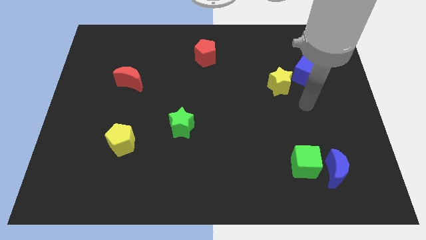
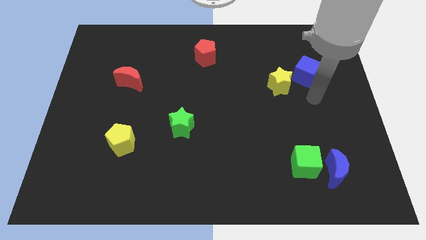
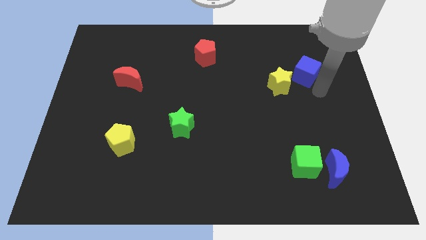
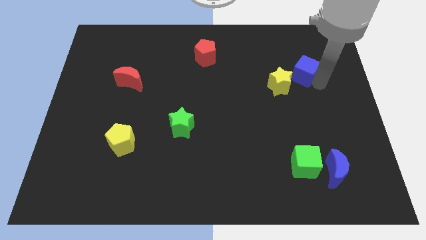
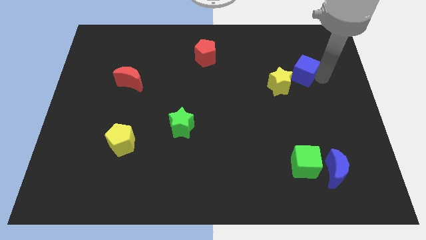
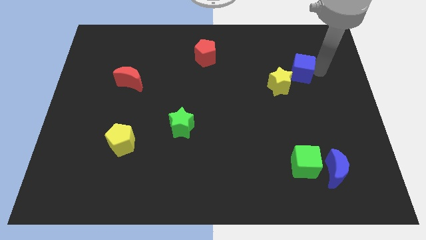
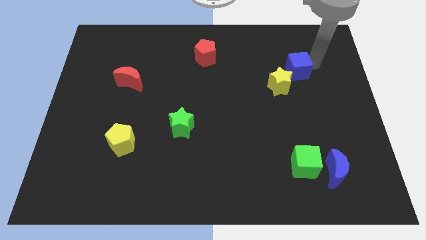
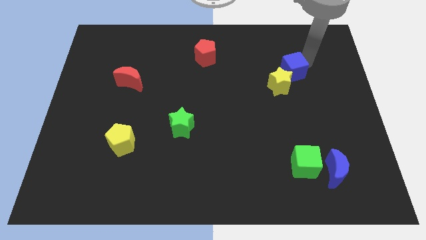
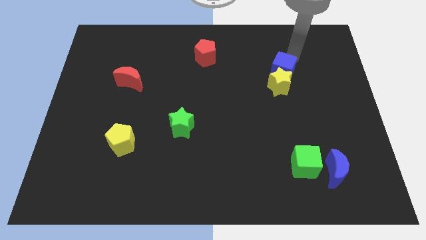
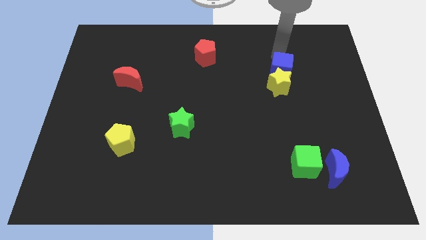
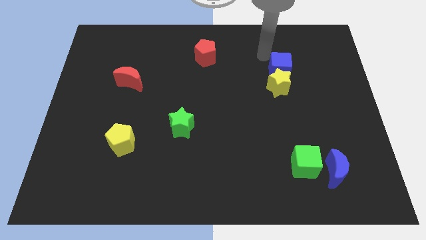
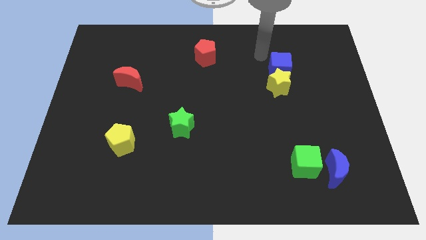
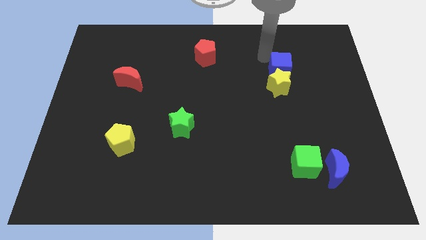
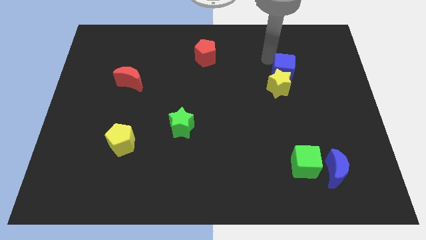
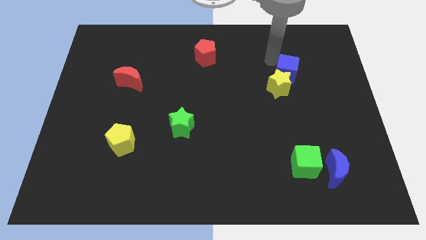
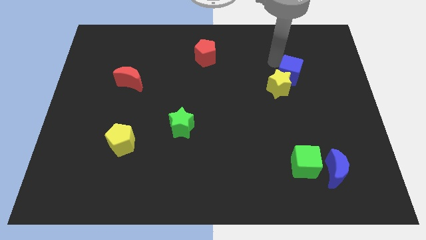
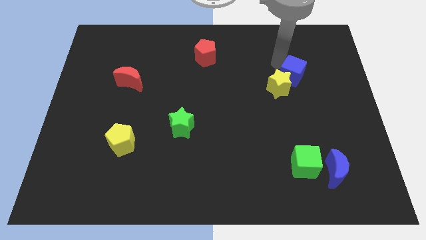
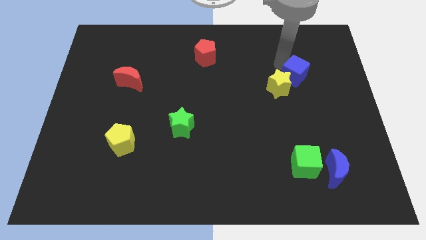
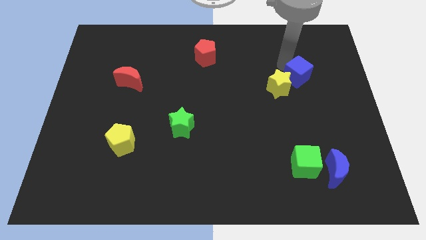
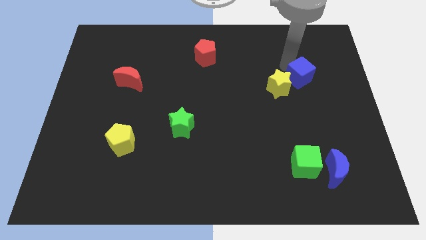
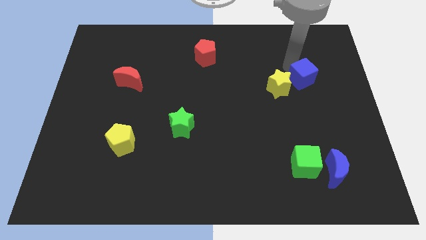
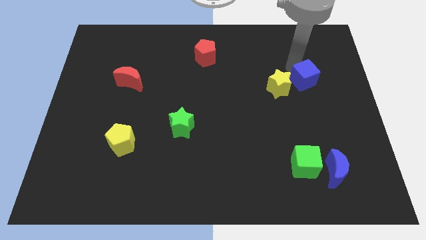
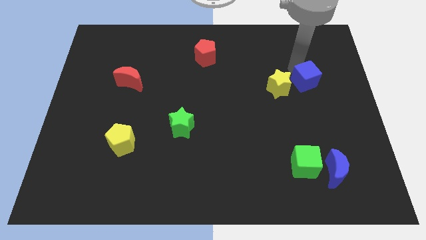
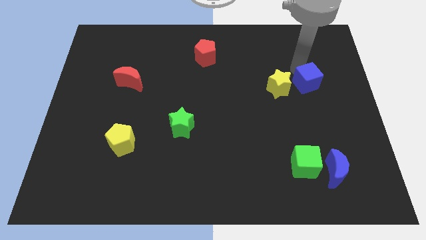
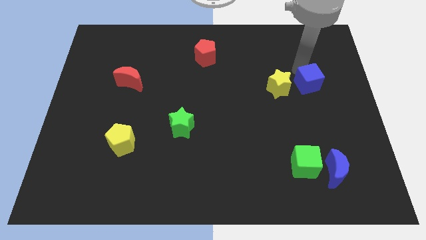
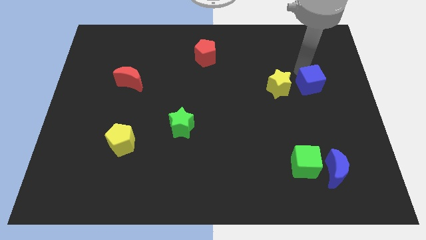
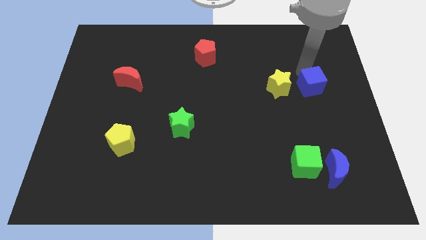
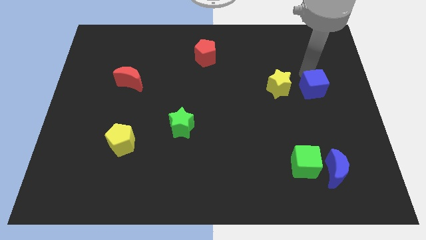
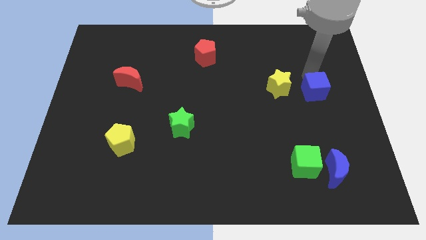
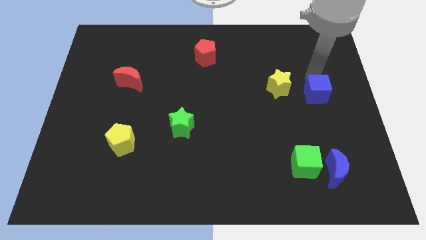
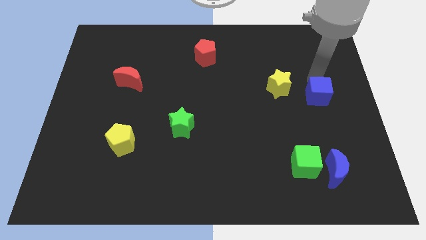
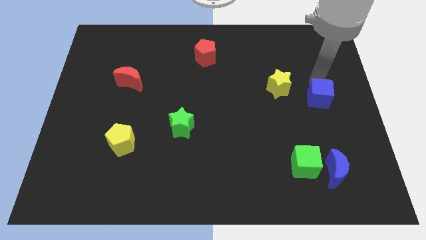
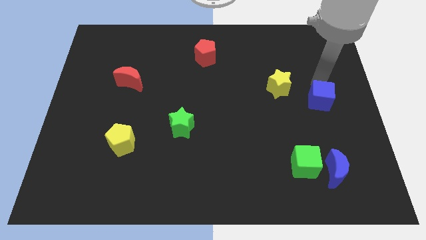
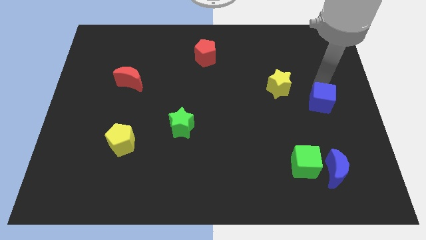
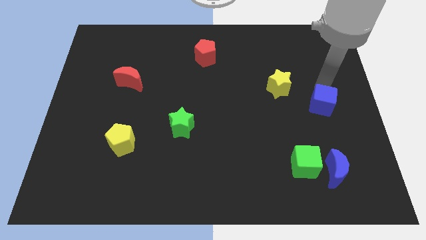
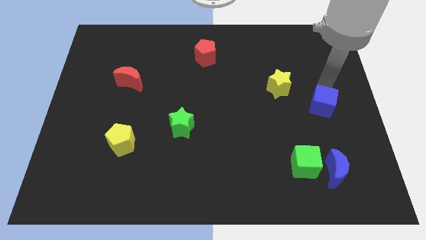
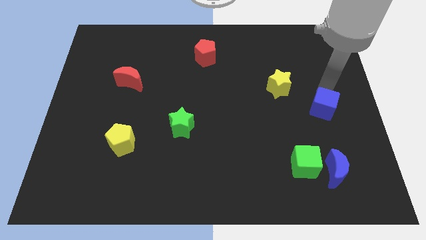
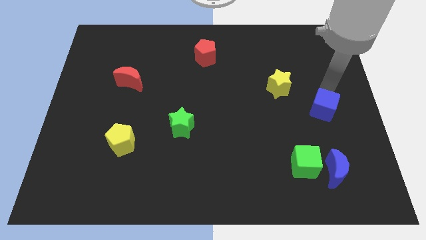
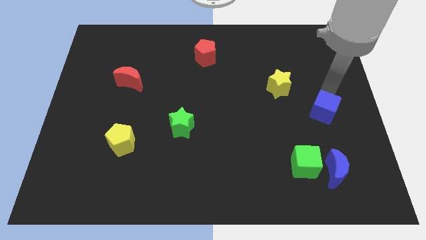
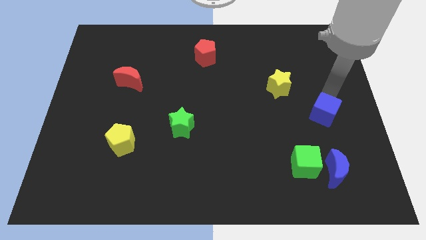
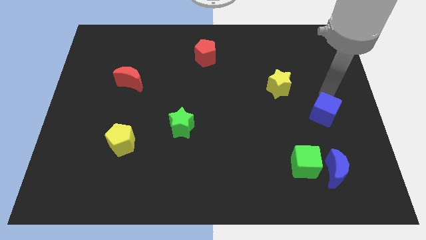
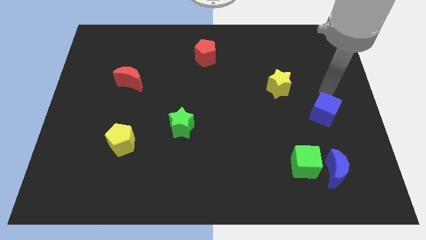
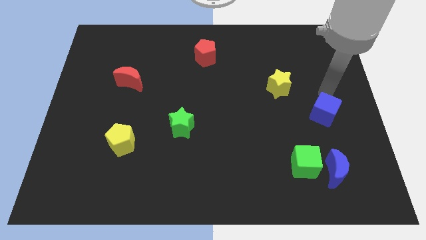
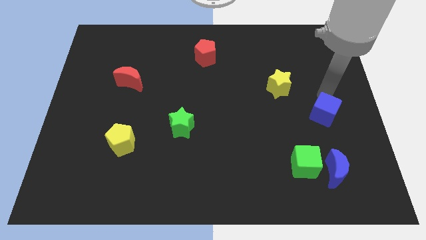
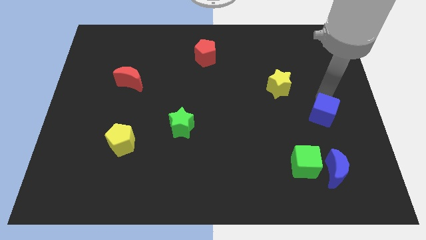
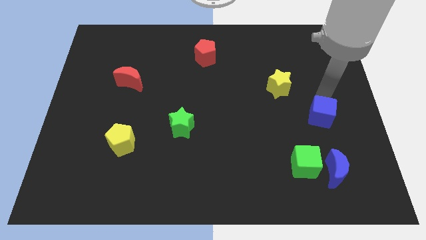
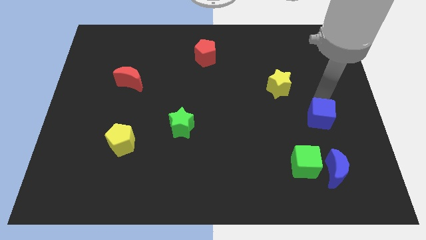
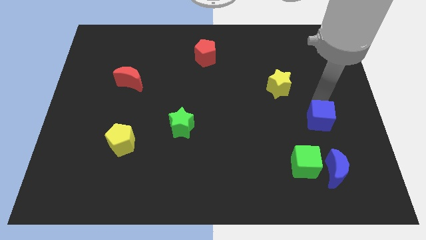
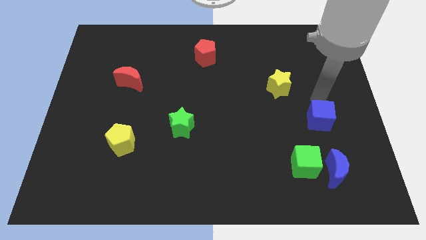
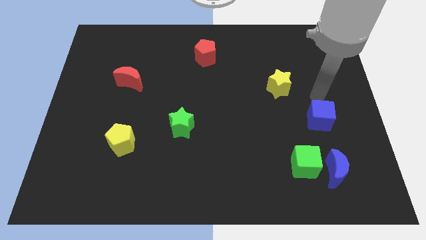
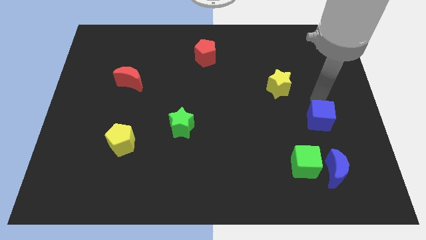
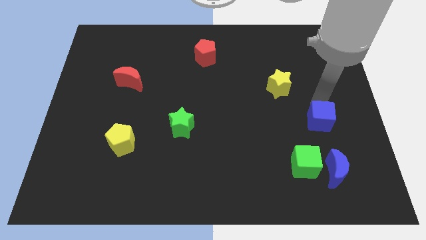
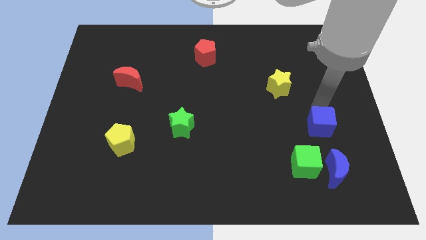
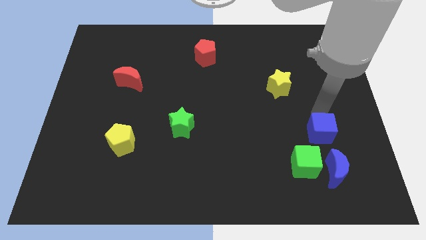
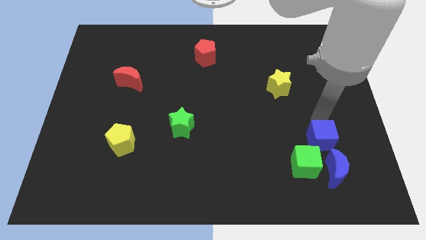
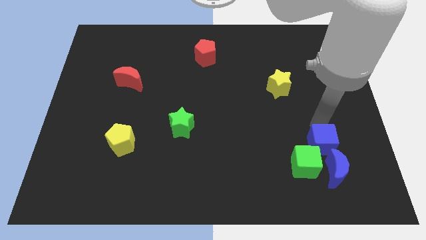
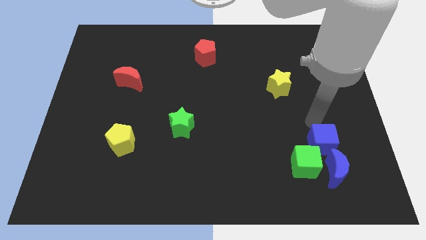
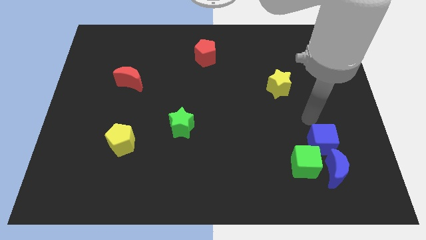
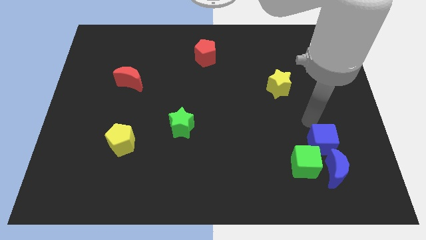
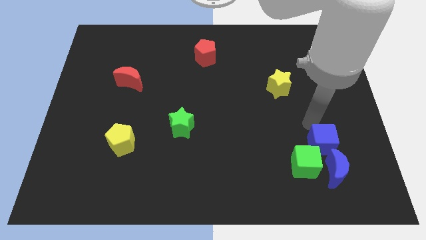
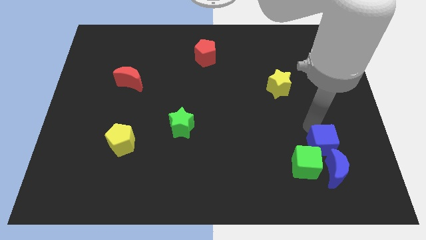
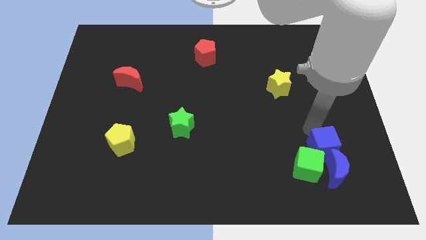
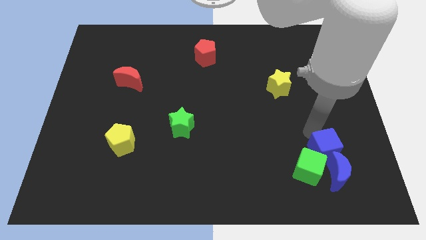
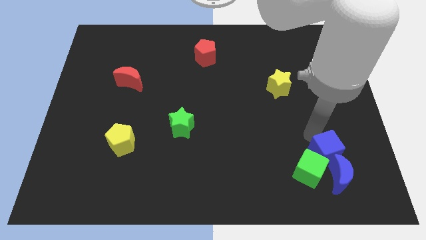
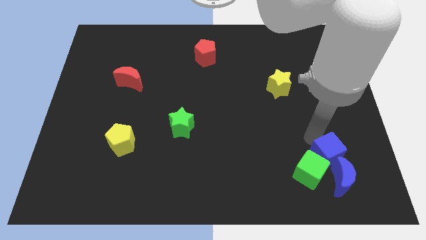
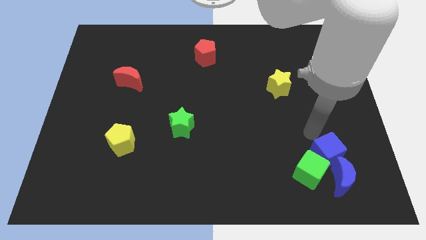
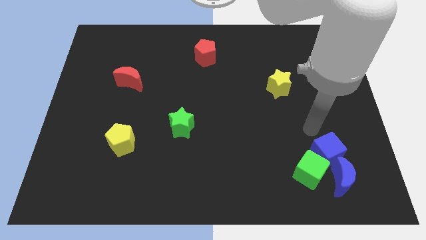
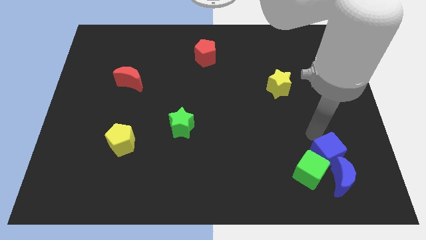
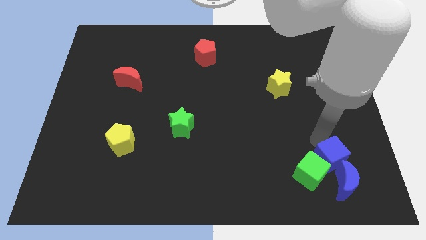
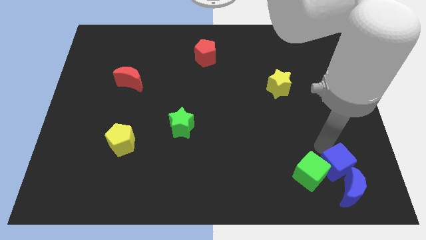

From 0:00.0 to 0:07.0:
move the blue cube to the blue moon

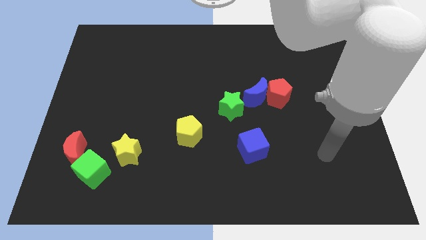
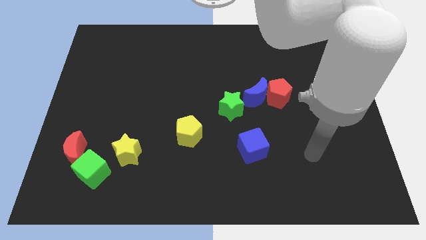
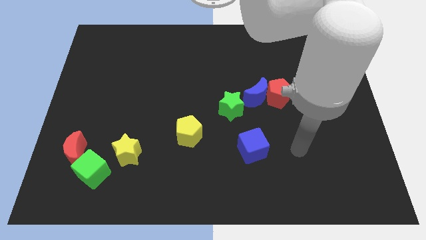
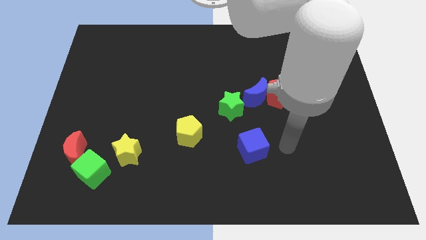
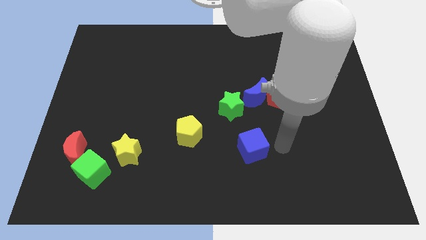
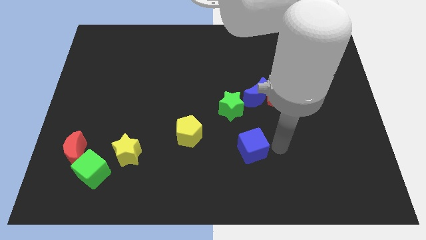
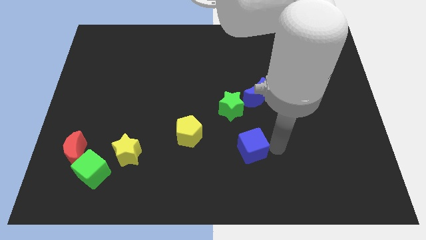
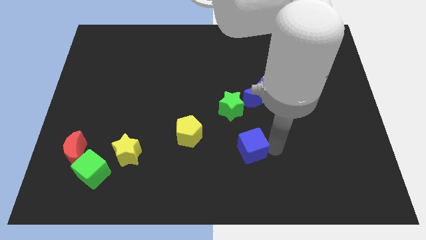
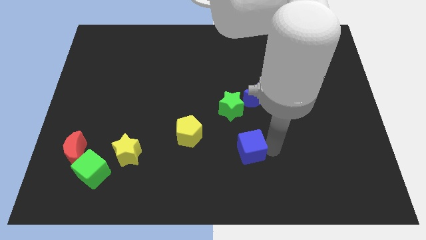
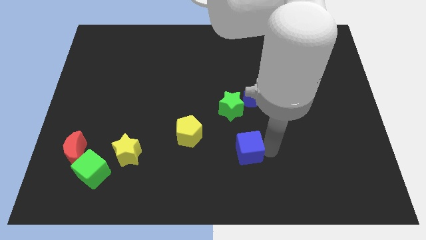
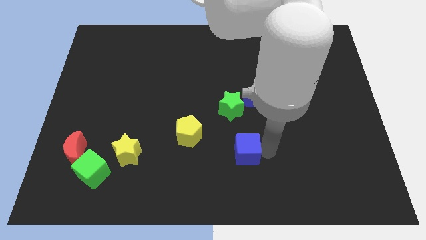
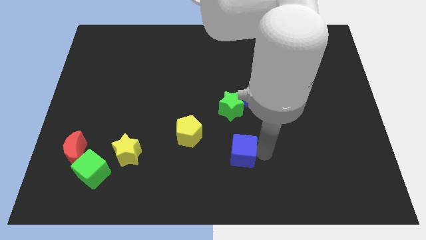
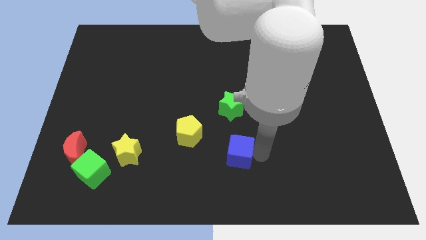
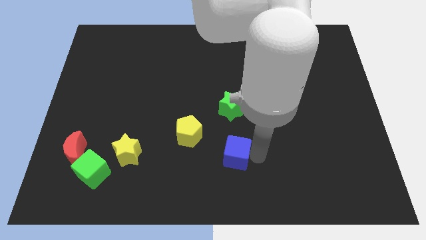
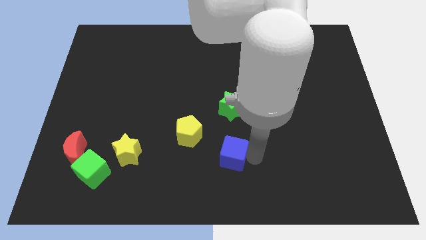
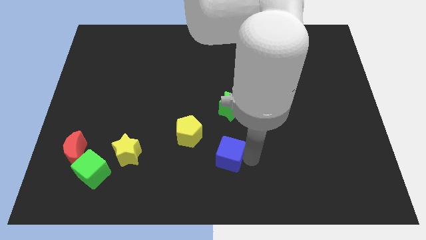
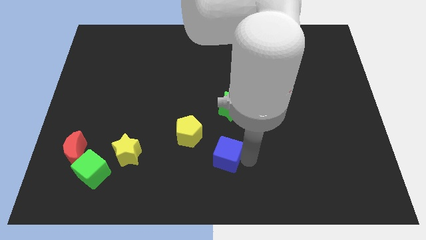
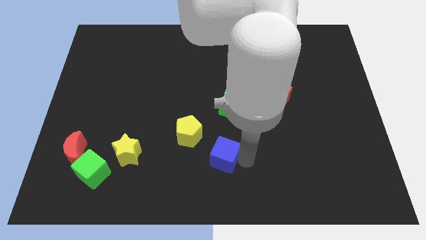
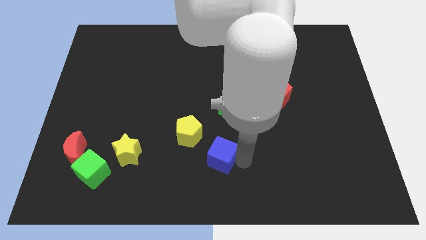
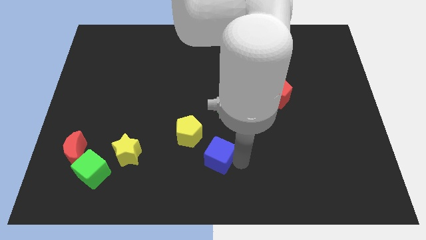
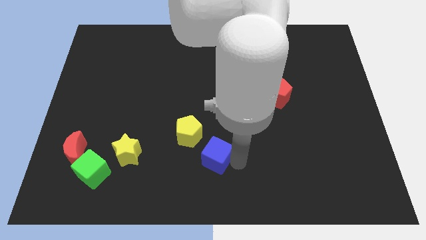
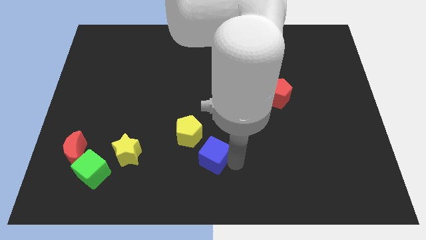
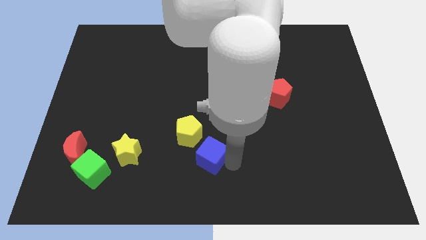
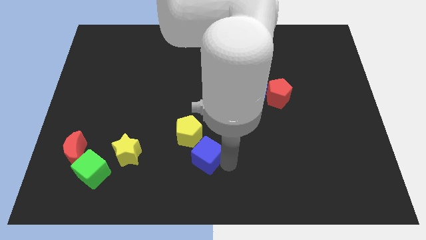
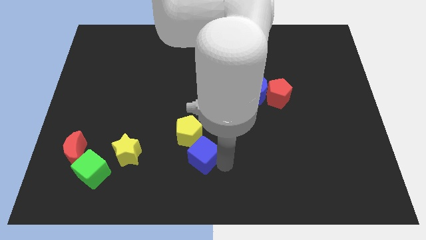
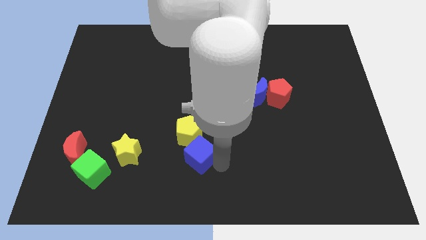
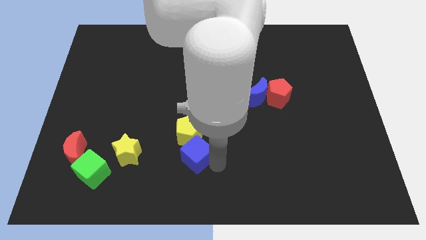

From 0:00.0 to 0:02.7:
put the blue cube next to the yellow pentagon
